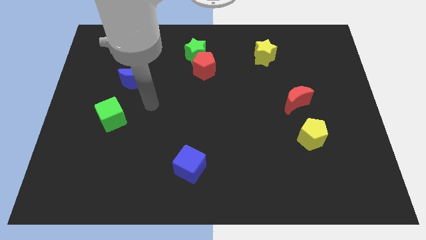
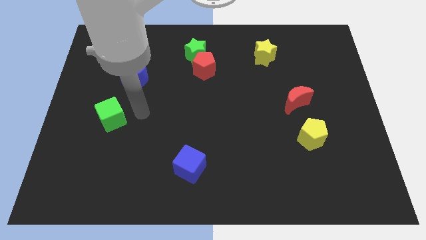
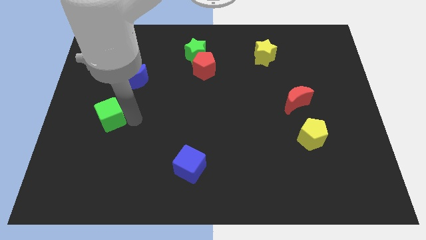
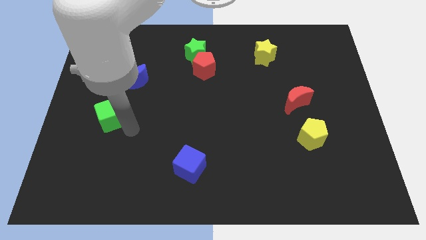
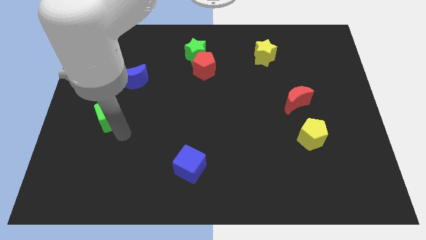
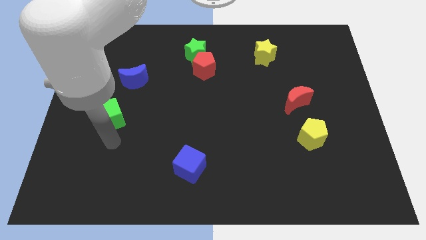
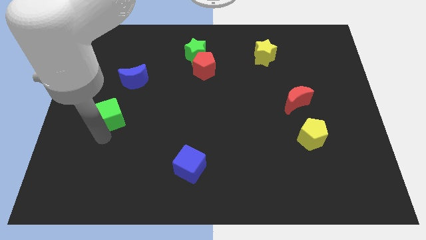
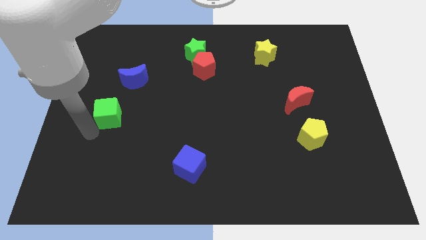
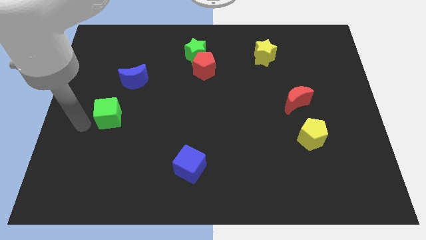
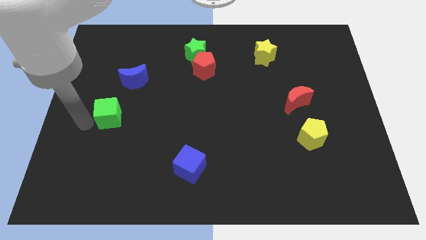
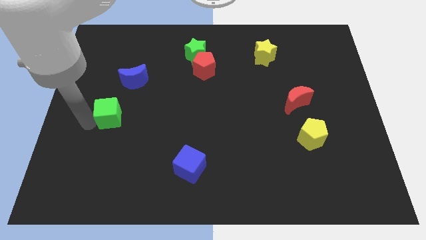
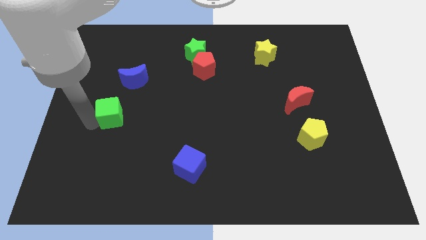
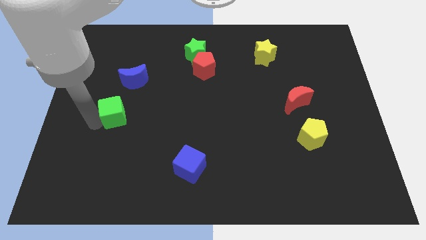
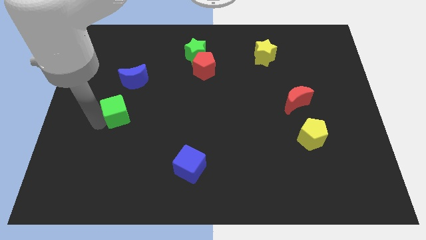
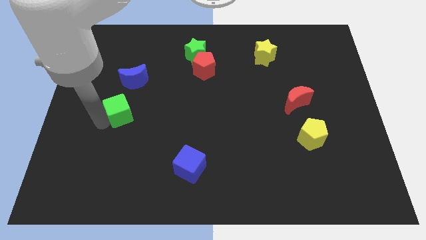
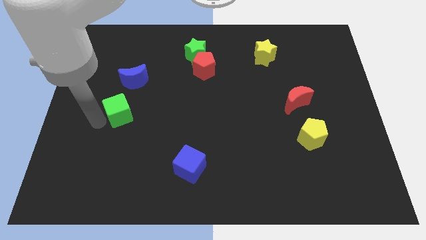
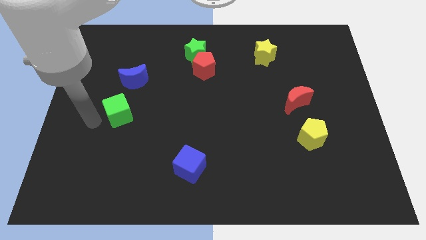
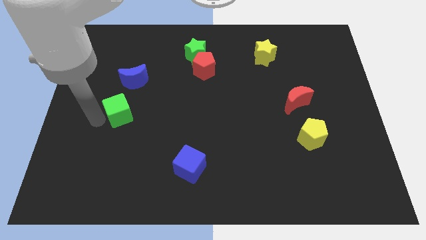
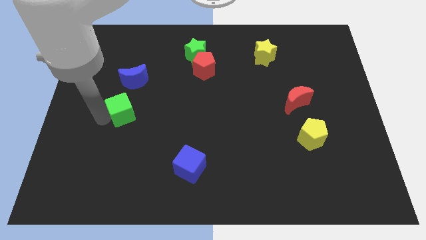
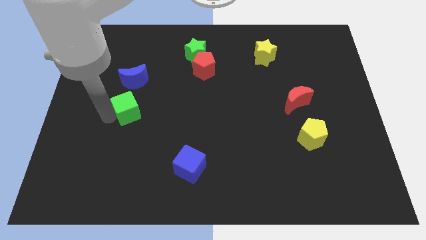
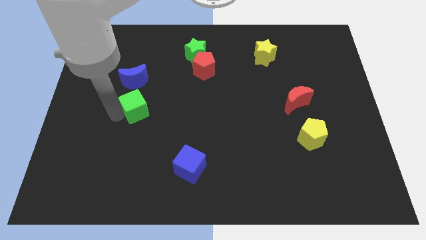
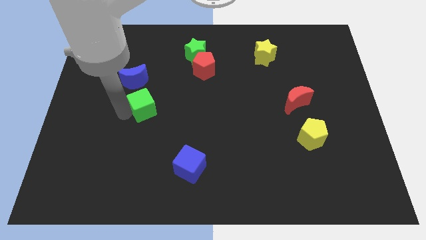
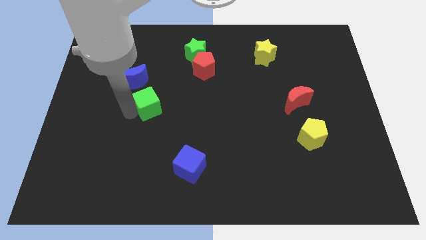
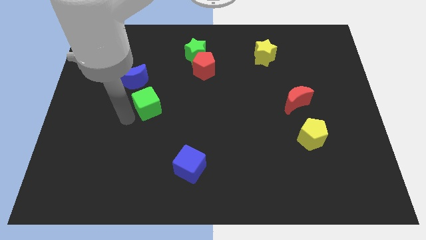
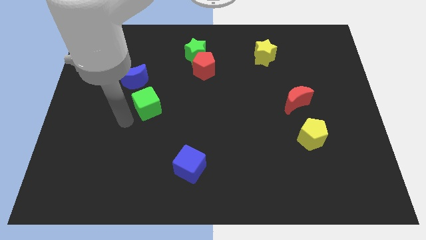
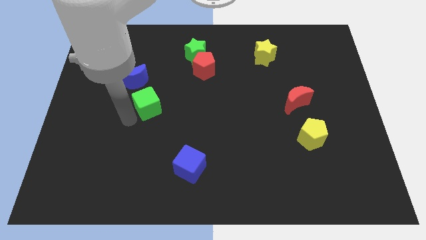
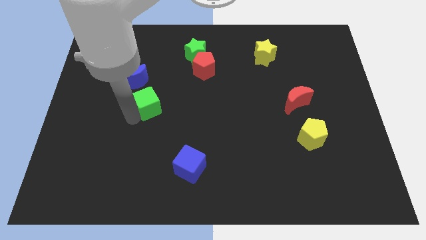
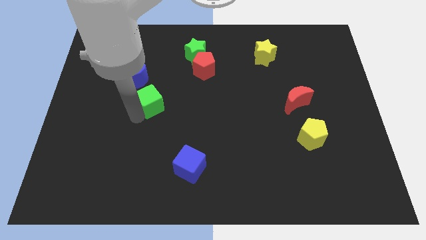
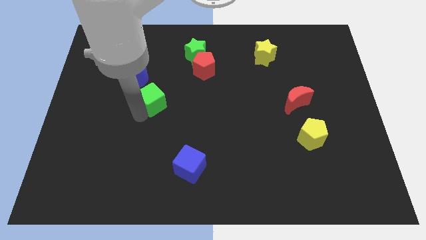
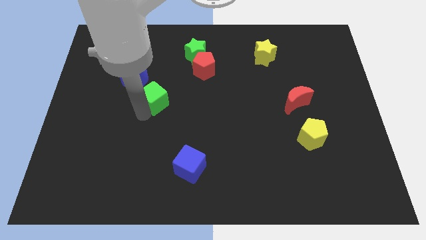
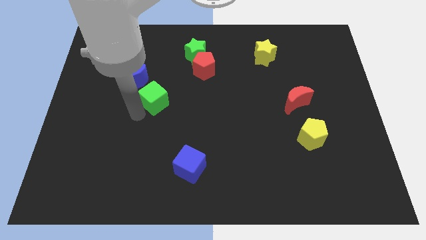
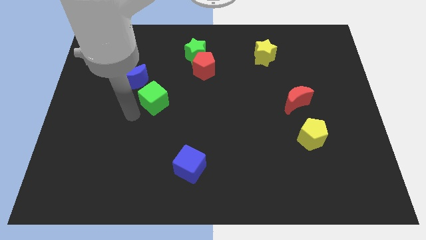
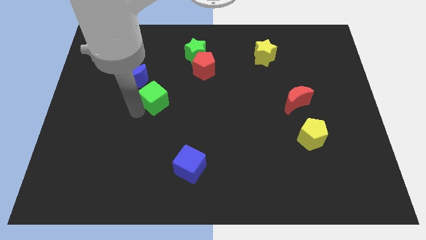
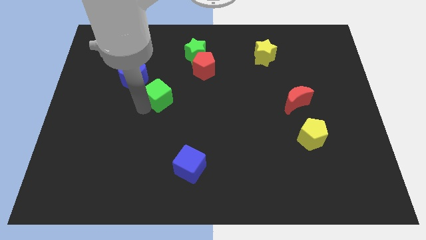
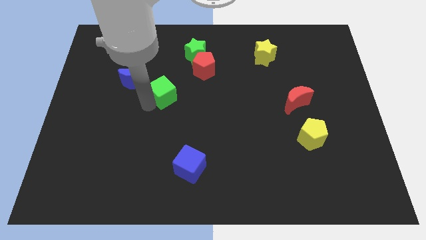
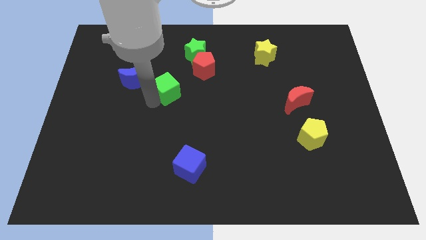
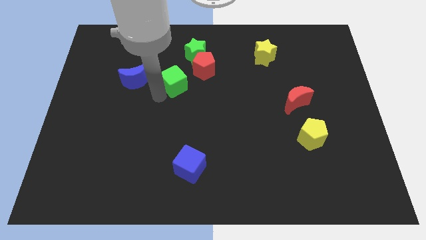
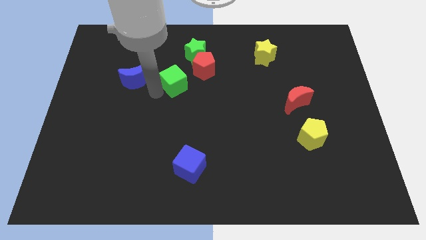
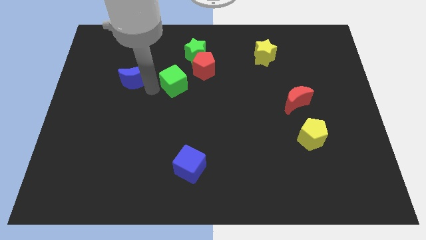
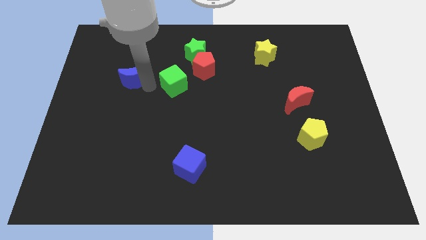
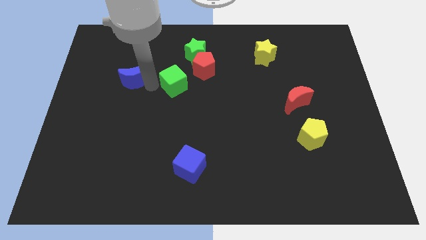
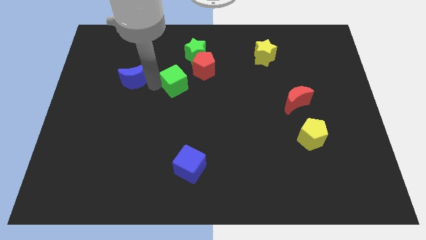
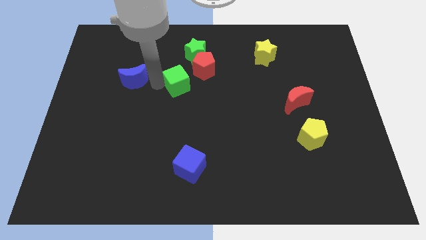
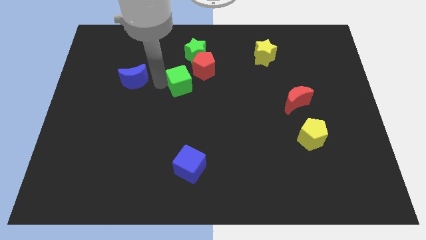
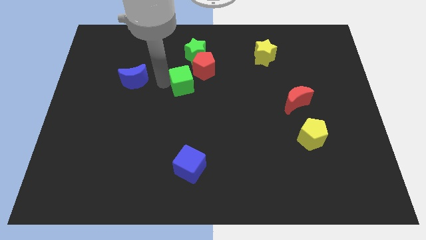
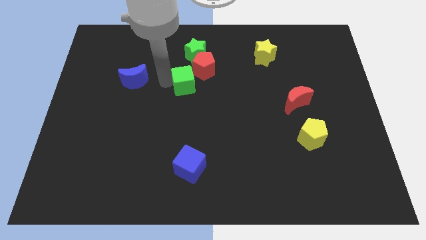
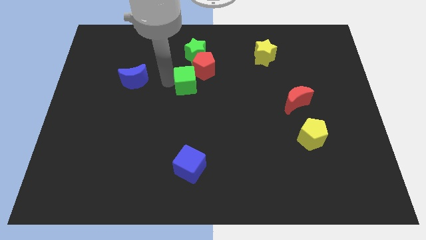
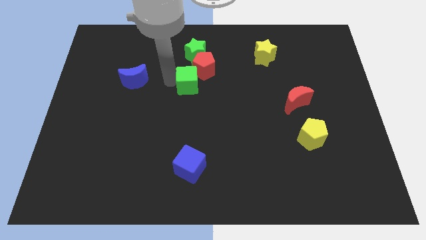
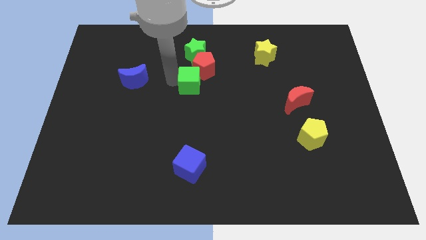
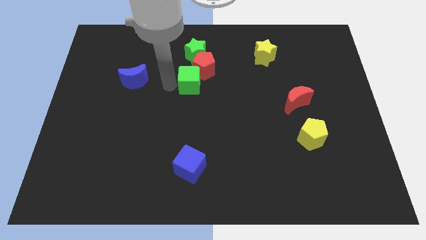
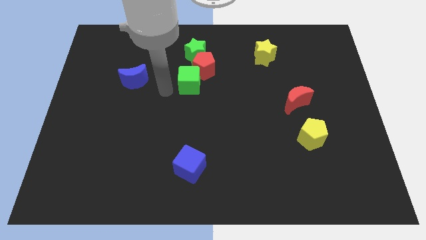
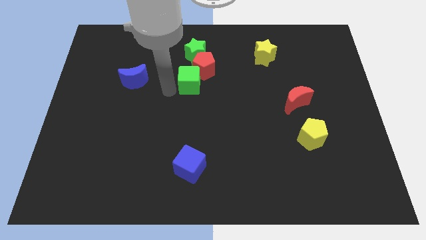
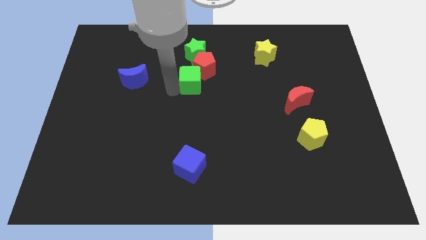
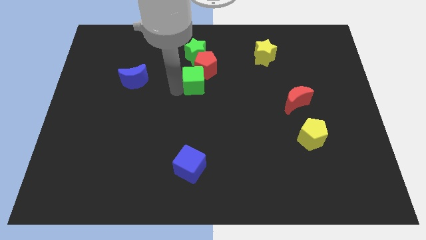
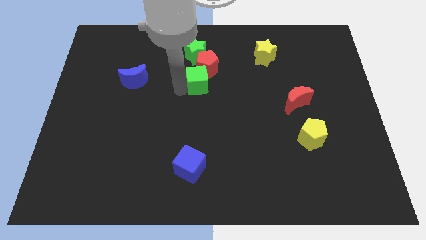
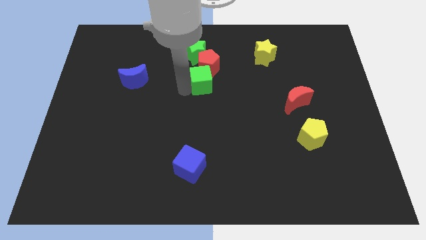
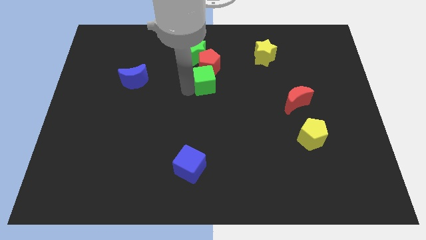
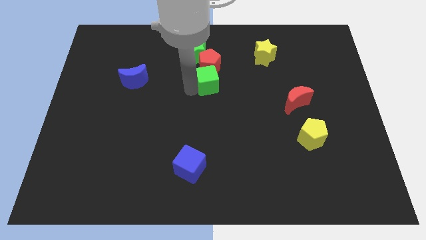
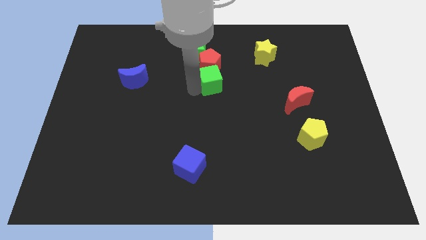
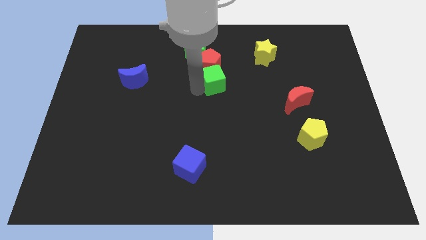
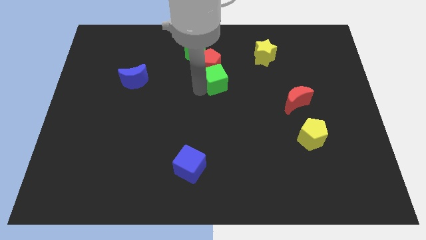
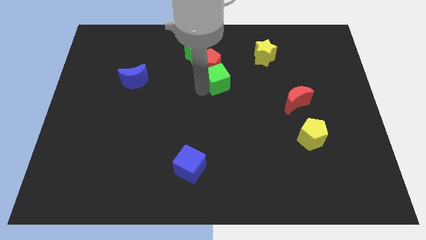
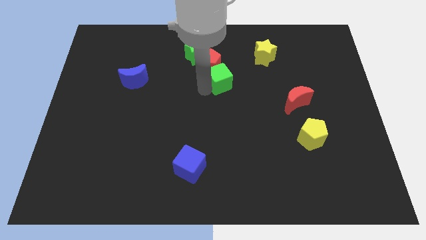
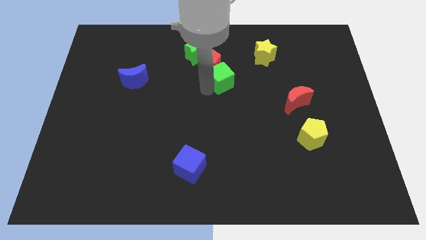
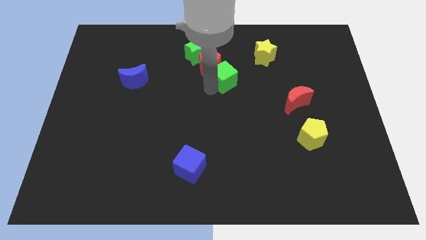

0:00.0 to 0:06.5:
slide the green cube right of the red pentagon

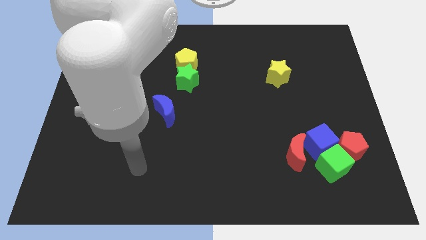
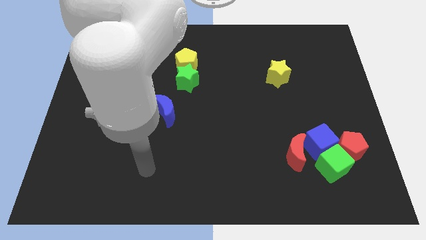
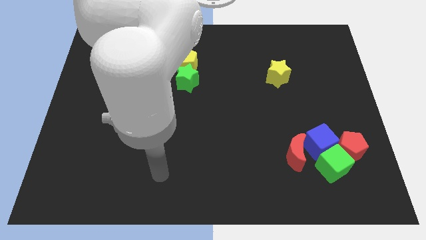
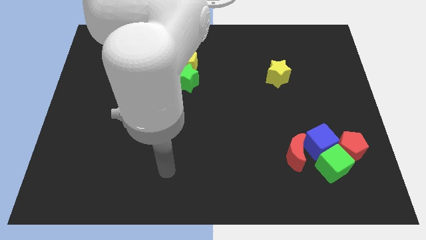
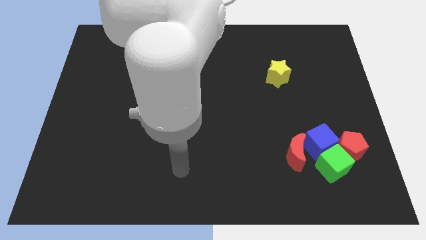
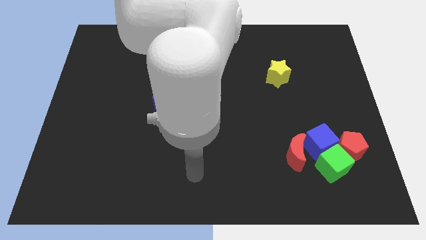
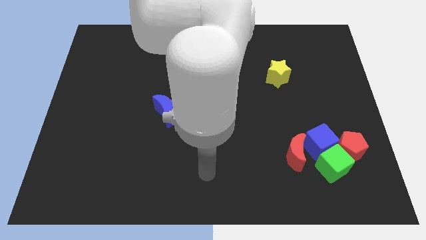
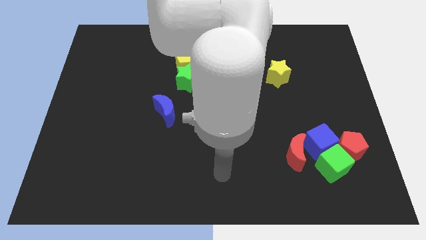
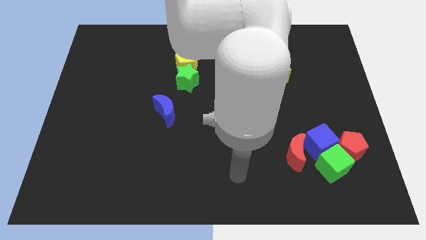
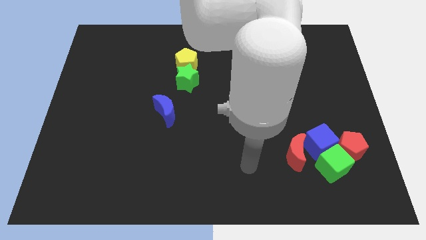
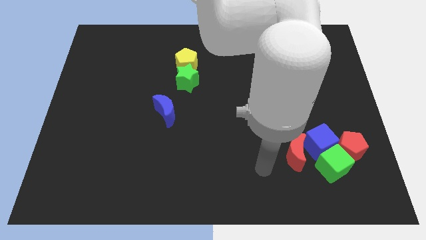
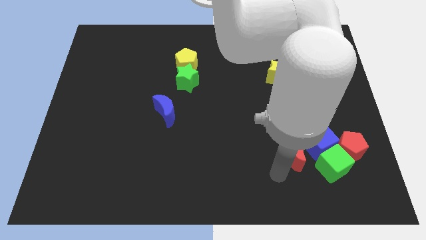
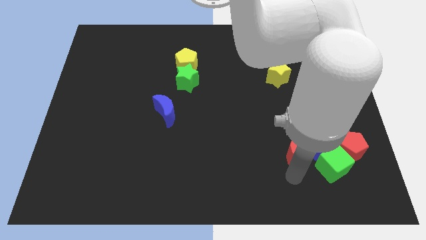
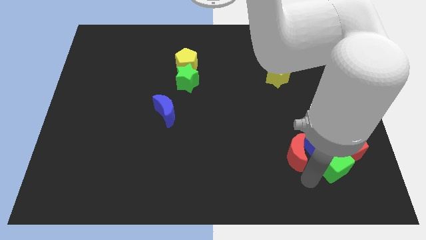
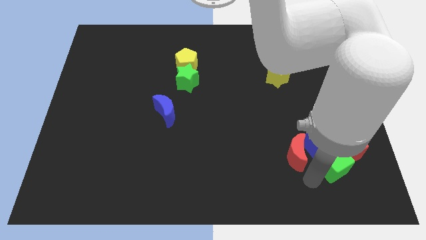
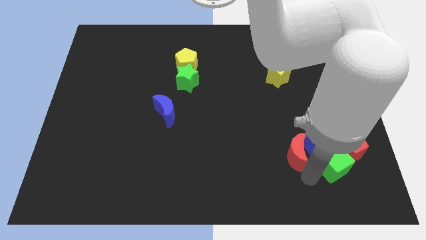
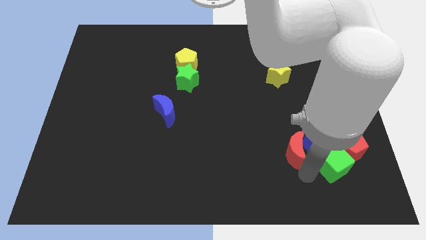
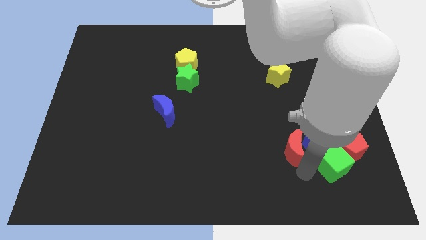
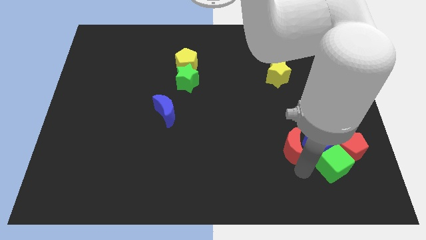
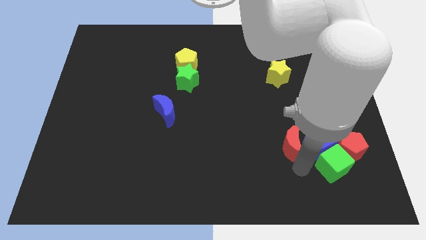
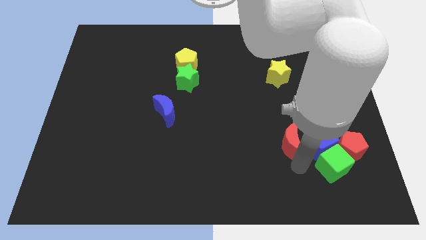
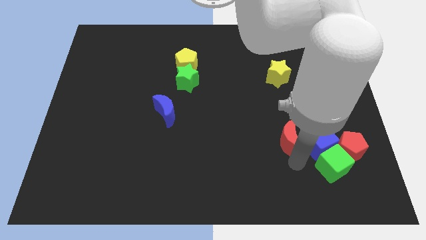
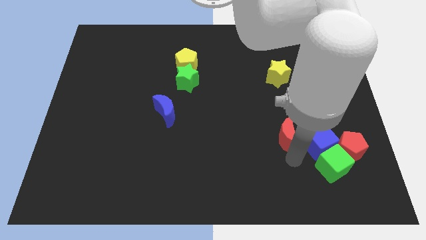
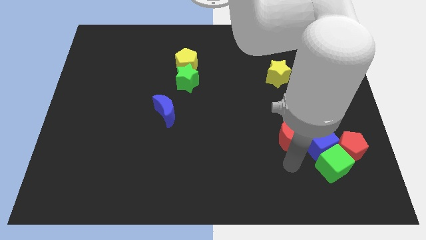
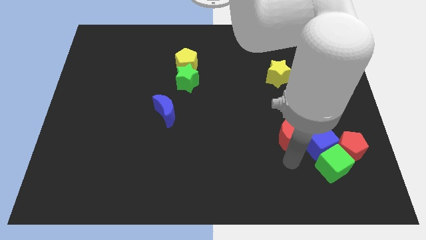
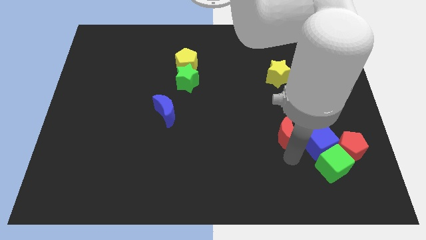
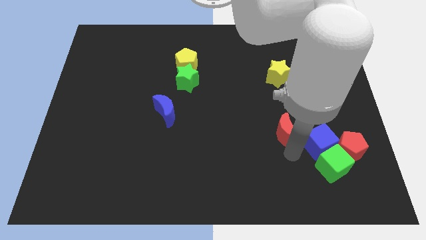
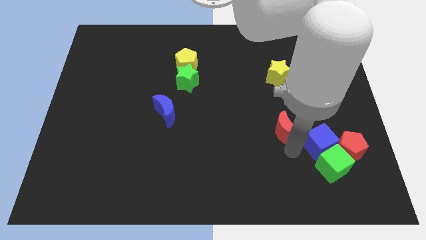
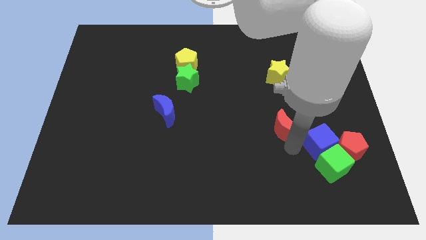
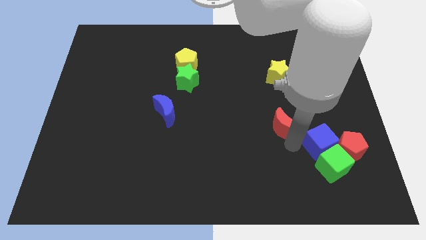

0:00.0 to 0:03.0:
push the red moon below the yellow star
